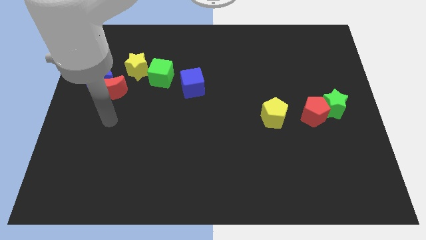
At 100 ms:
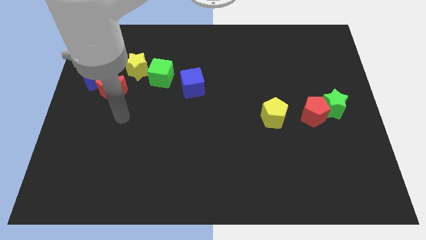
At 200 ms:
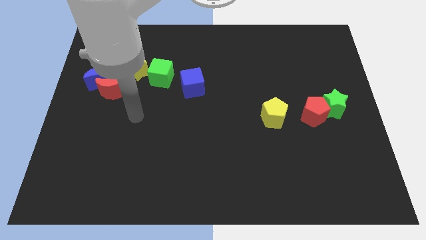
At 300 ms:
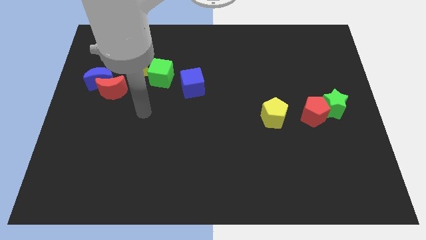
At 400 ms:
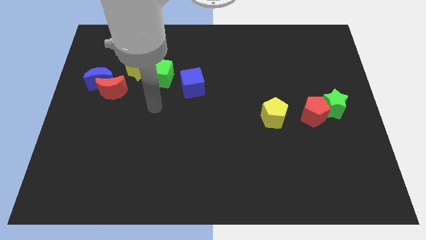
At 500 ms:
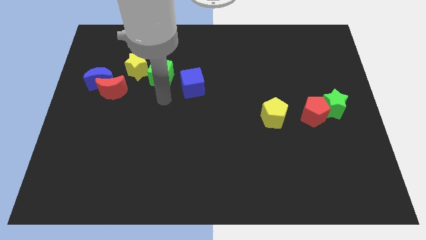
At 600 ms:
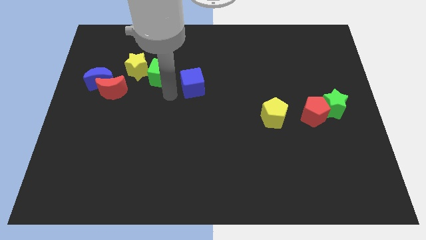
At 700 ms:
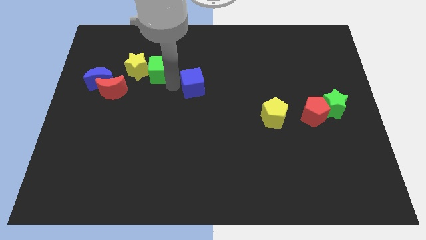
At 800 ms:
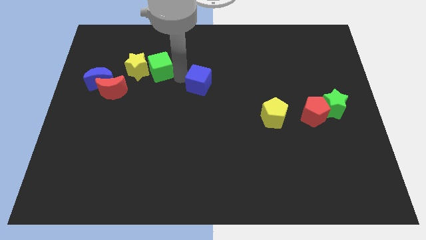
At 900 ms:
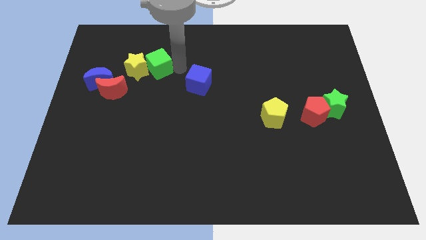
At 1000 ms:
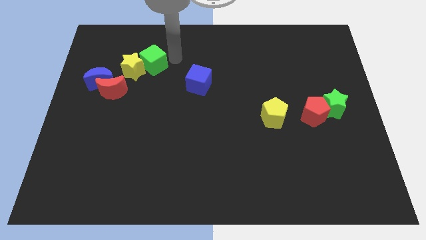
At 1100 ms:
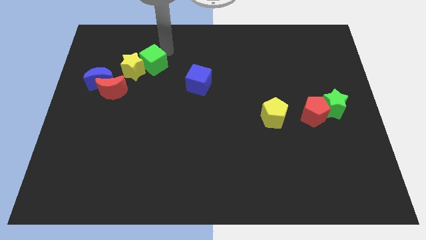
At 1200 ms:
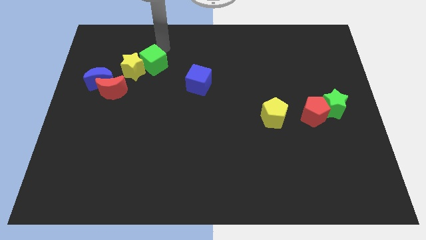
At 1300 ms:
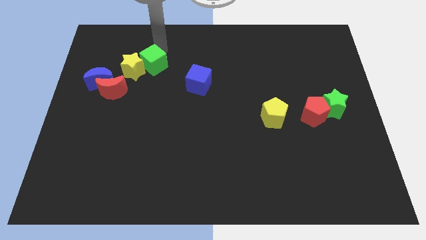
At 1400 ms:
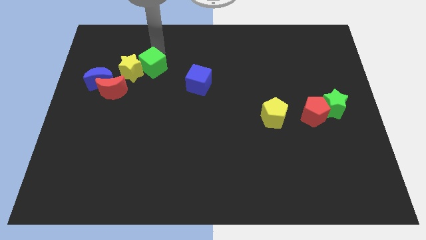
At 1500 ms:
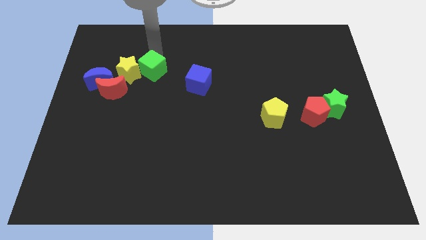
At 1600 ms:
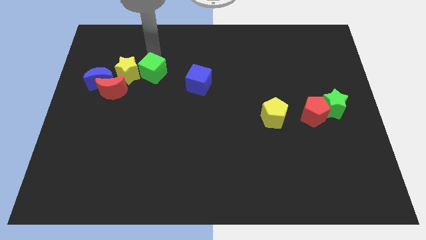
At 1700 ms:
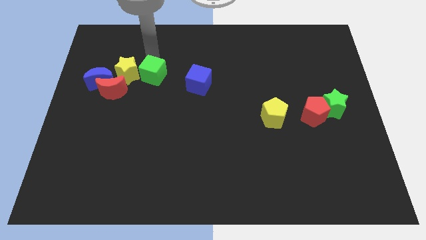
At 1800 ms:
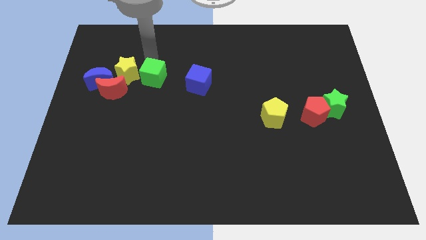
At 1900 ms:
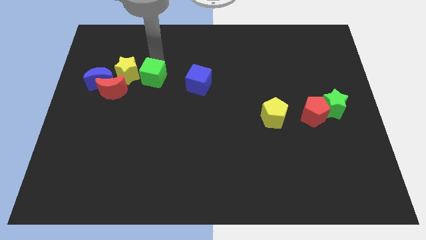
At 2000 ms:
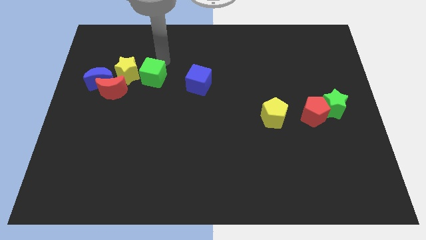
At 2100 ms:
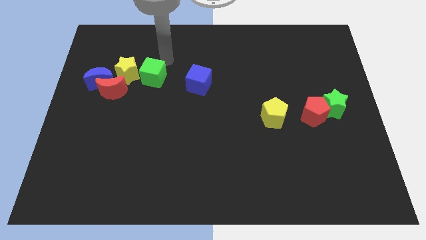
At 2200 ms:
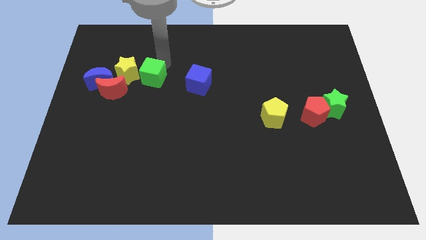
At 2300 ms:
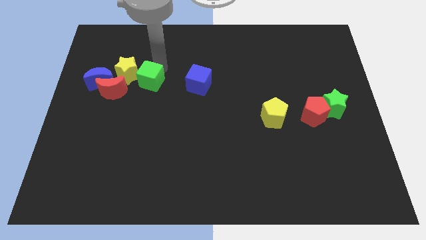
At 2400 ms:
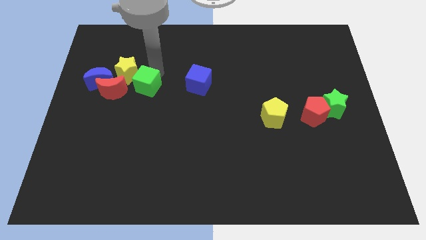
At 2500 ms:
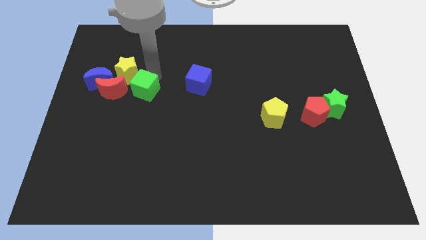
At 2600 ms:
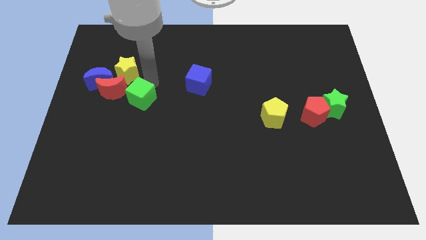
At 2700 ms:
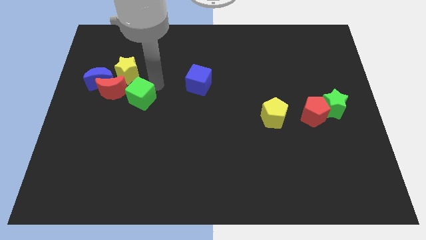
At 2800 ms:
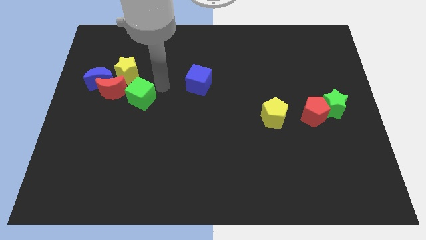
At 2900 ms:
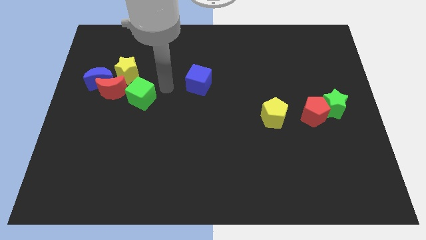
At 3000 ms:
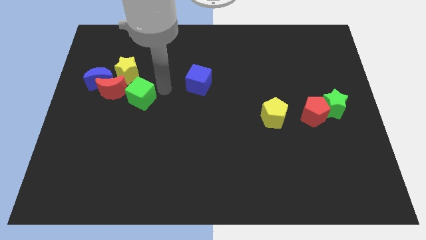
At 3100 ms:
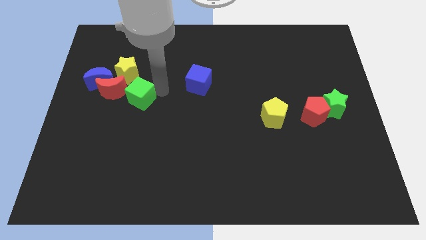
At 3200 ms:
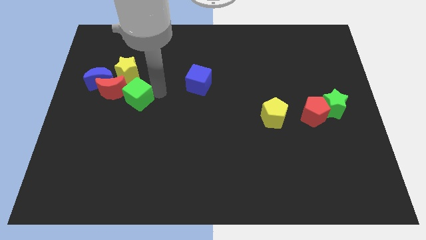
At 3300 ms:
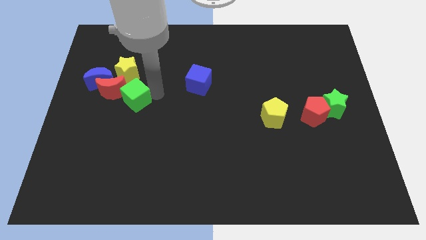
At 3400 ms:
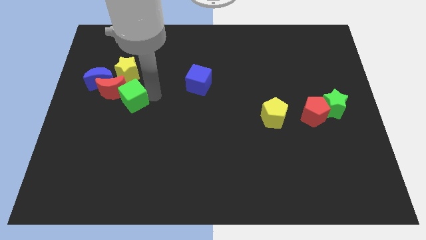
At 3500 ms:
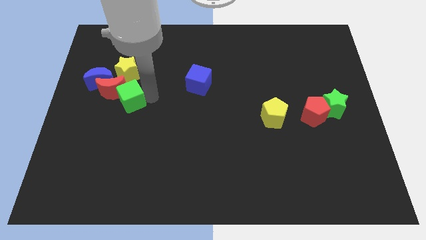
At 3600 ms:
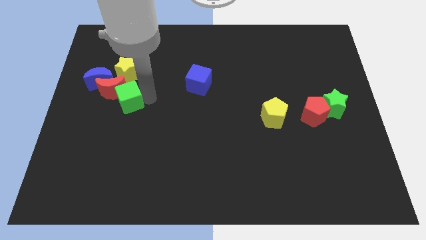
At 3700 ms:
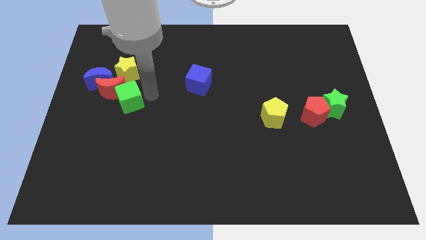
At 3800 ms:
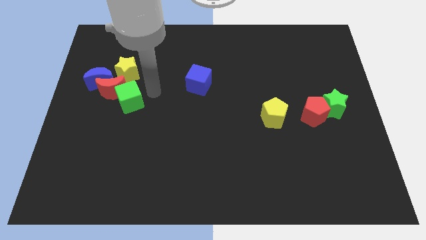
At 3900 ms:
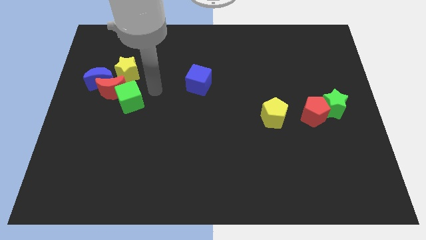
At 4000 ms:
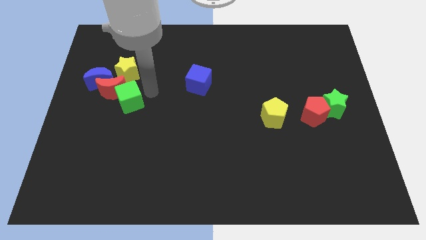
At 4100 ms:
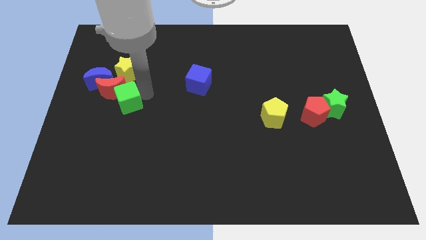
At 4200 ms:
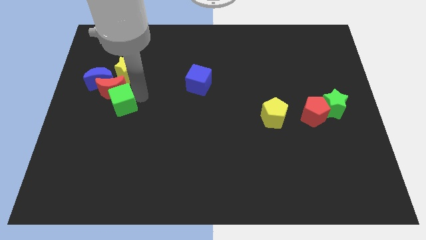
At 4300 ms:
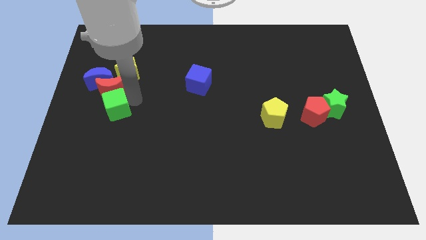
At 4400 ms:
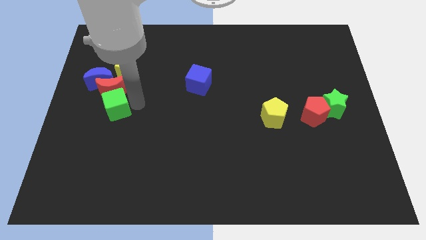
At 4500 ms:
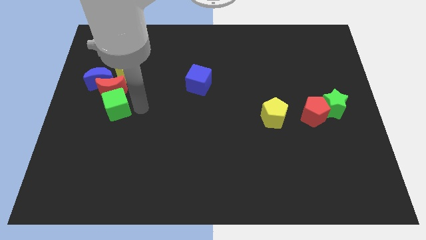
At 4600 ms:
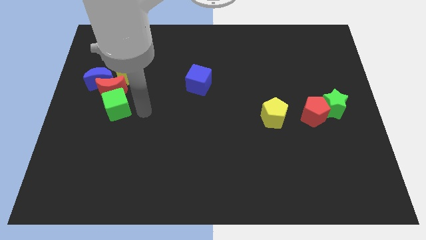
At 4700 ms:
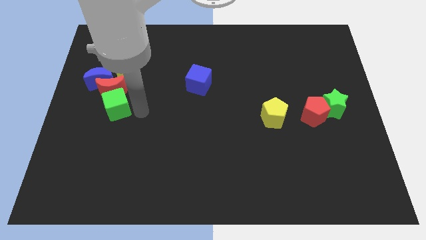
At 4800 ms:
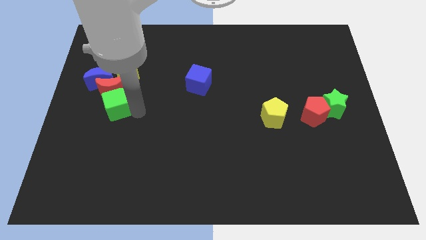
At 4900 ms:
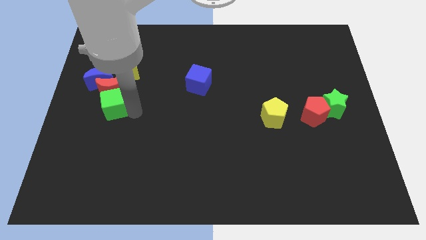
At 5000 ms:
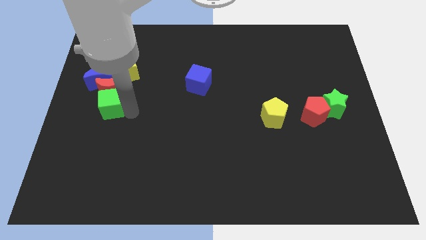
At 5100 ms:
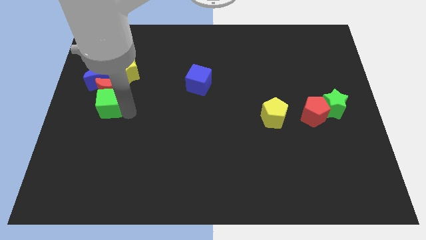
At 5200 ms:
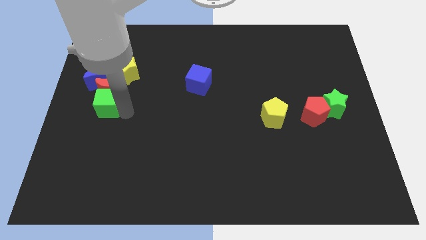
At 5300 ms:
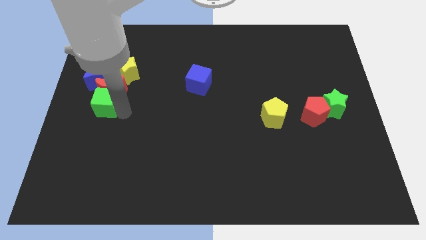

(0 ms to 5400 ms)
put the green cube to the left side of the board

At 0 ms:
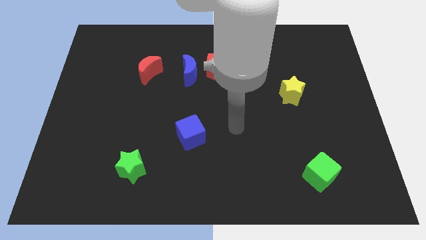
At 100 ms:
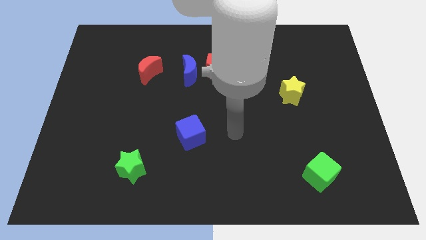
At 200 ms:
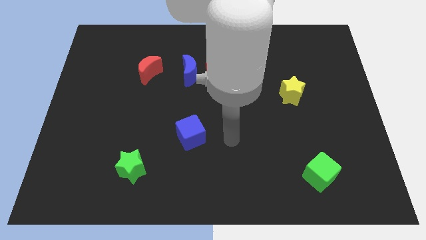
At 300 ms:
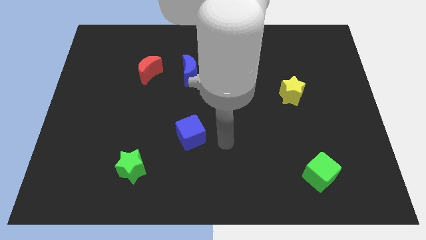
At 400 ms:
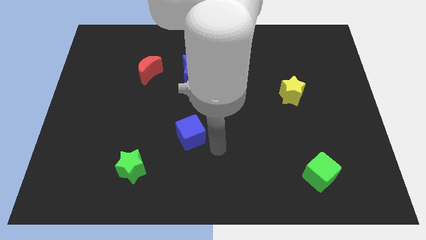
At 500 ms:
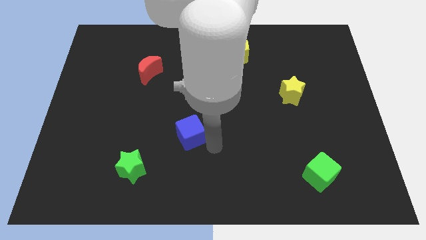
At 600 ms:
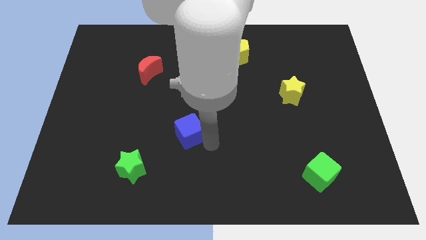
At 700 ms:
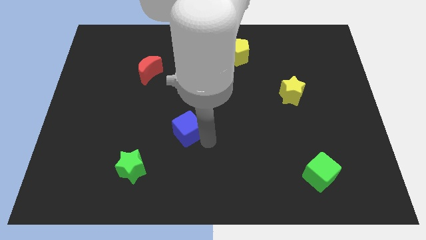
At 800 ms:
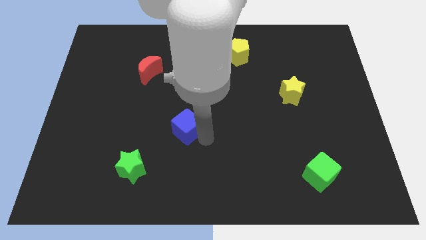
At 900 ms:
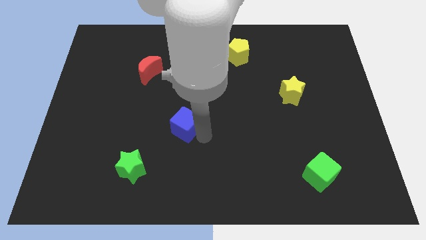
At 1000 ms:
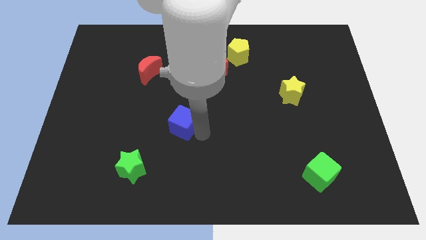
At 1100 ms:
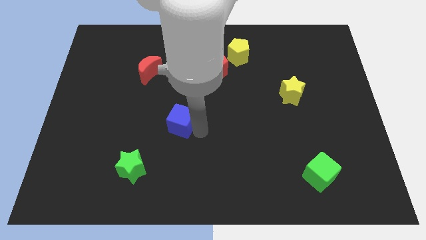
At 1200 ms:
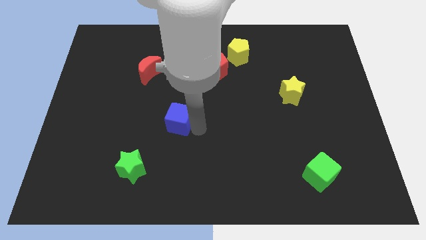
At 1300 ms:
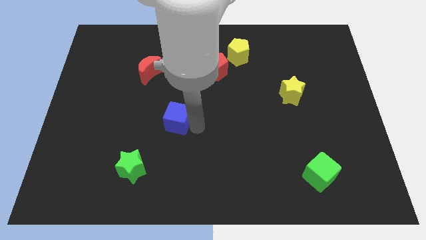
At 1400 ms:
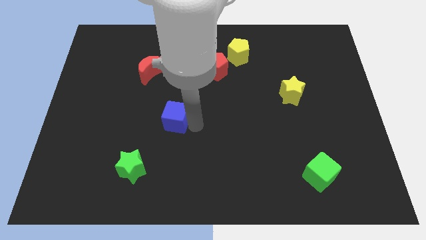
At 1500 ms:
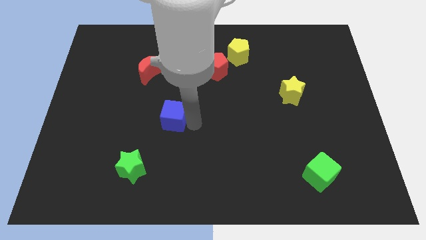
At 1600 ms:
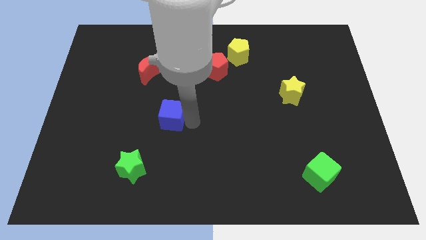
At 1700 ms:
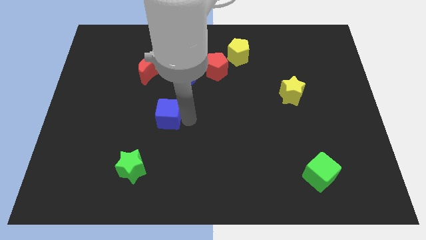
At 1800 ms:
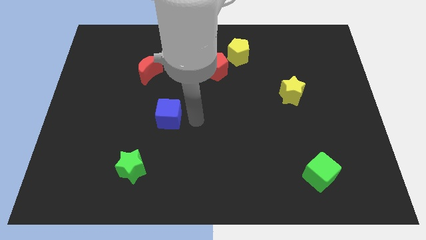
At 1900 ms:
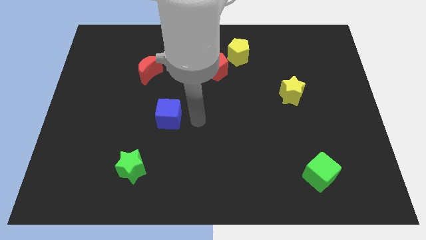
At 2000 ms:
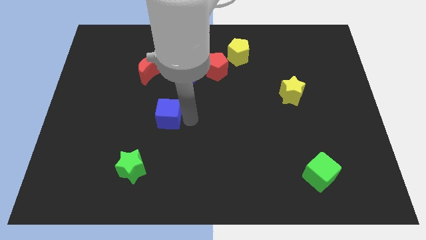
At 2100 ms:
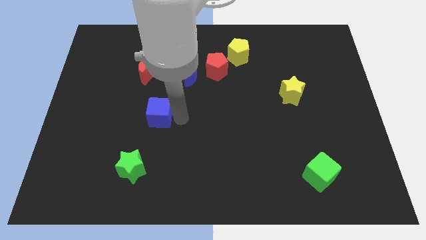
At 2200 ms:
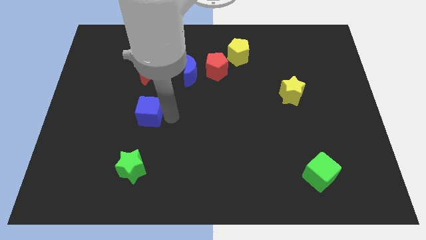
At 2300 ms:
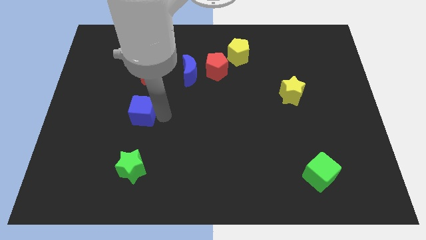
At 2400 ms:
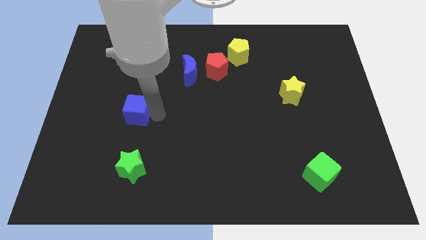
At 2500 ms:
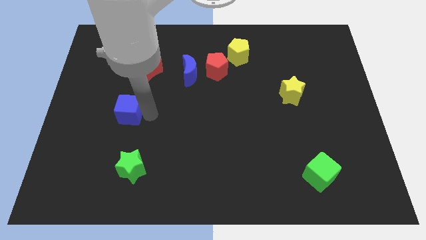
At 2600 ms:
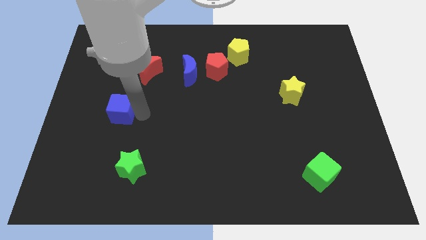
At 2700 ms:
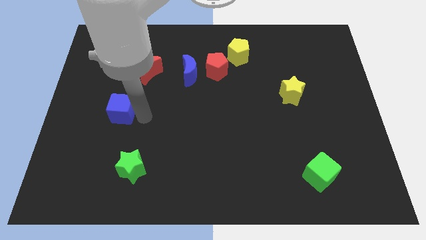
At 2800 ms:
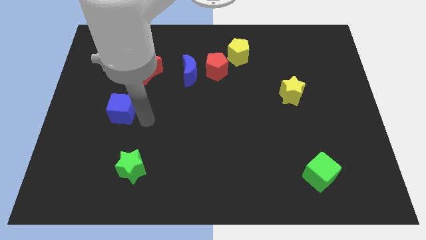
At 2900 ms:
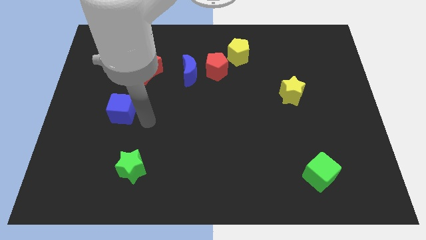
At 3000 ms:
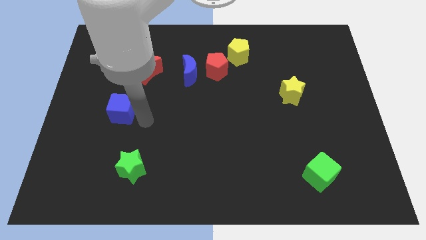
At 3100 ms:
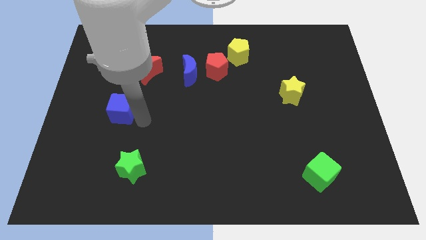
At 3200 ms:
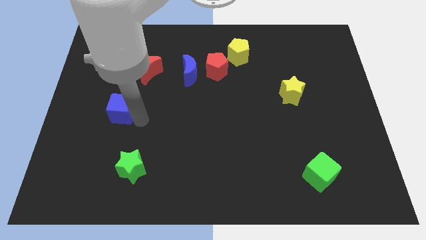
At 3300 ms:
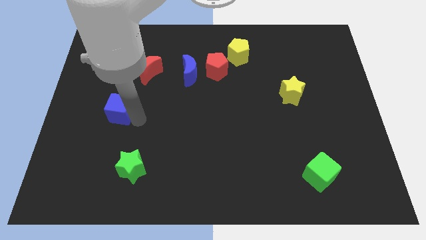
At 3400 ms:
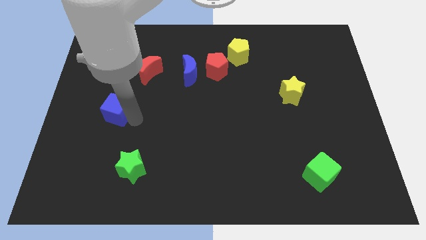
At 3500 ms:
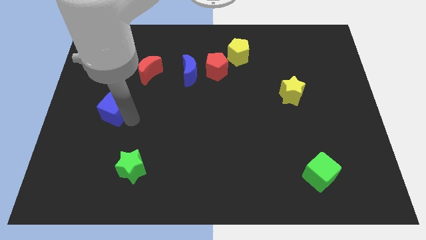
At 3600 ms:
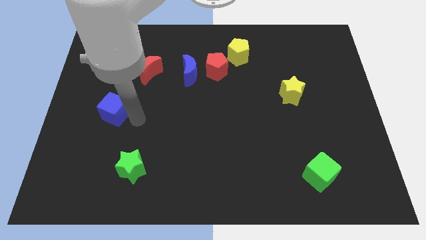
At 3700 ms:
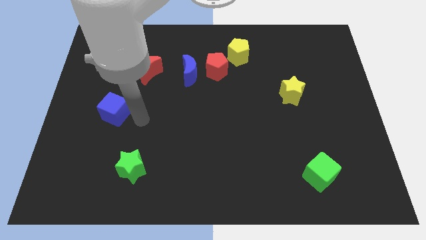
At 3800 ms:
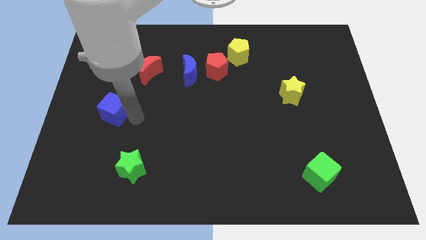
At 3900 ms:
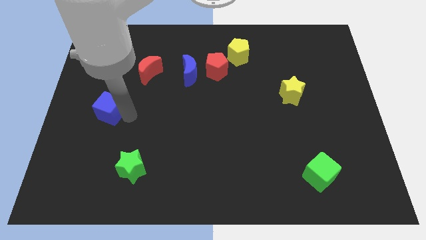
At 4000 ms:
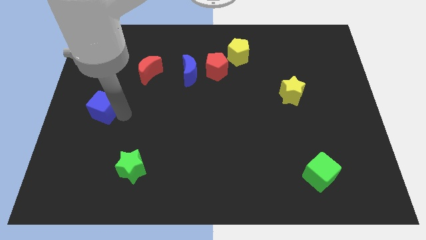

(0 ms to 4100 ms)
put the blue cube to the left side
